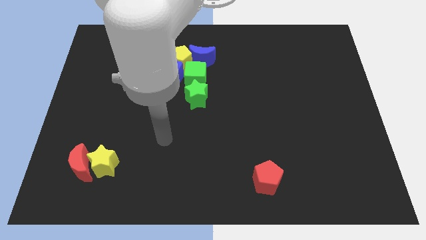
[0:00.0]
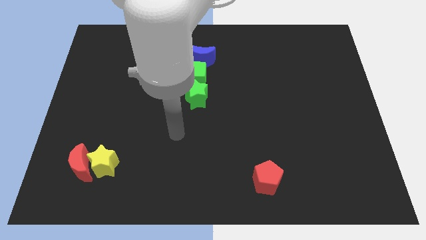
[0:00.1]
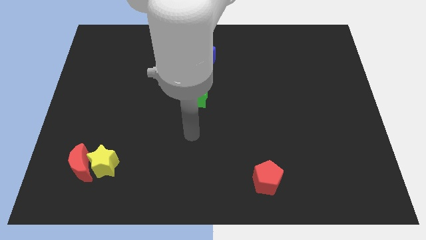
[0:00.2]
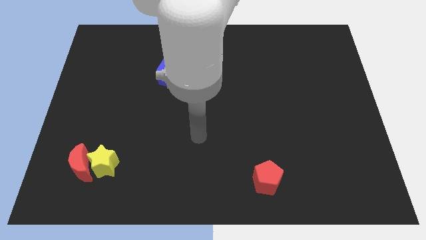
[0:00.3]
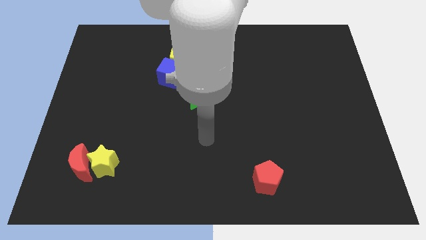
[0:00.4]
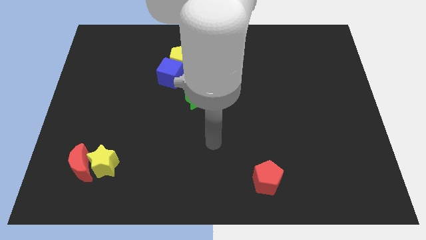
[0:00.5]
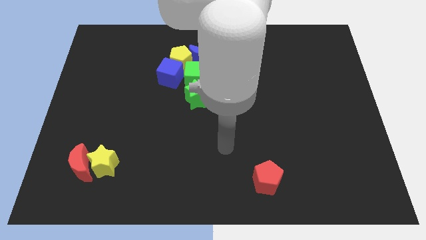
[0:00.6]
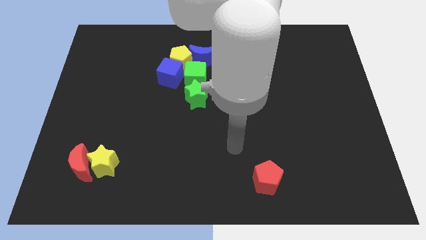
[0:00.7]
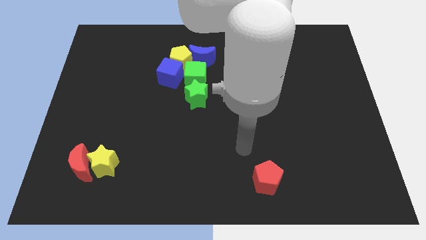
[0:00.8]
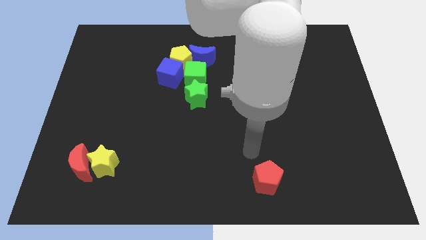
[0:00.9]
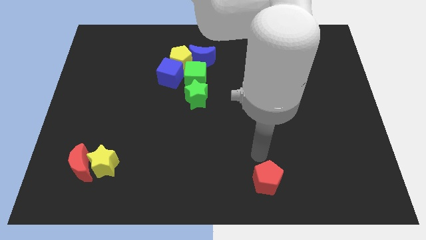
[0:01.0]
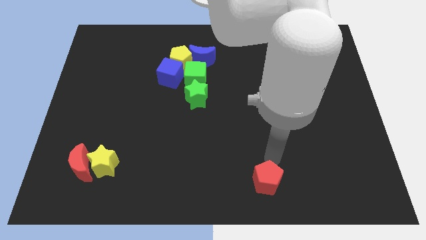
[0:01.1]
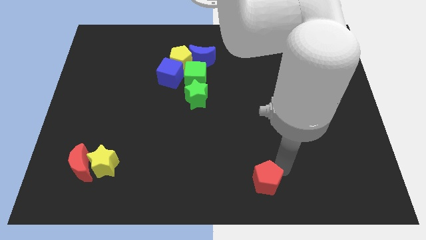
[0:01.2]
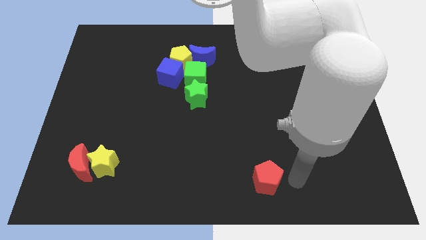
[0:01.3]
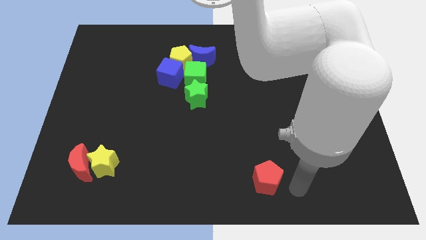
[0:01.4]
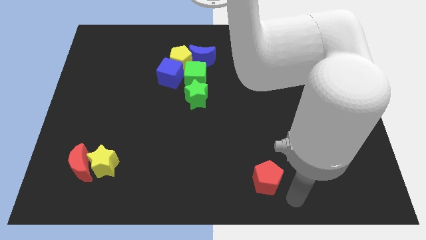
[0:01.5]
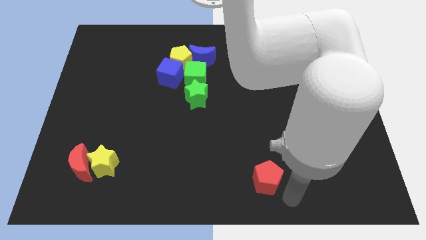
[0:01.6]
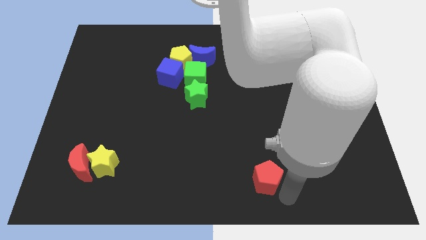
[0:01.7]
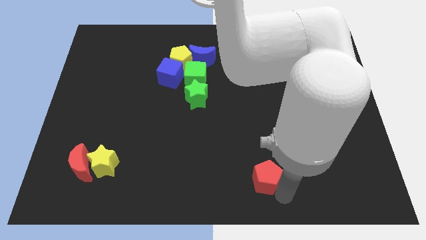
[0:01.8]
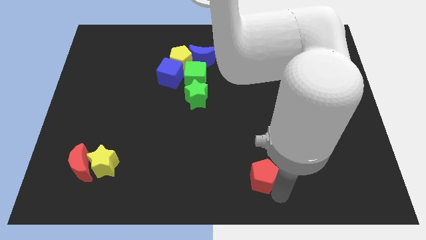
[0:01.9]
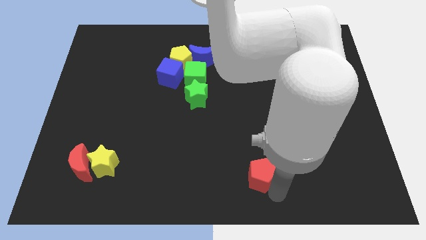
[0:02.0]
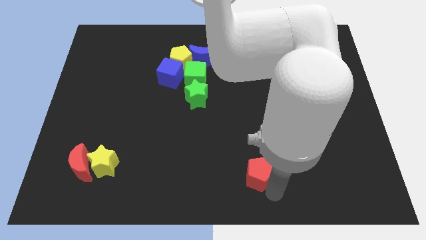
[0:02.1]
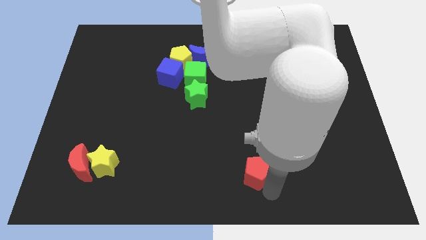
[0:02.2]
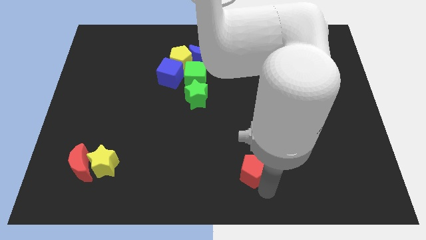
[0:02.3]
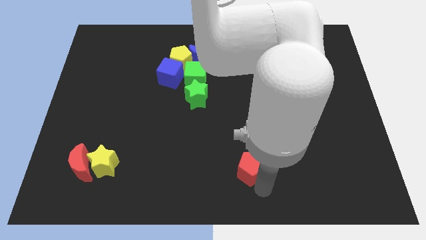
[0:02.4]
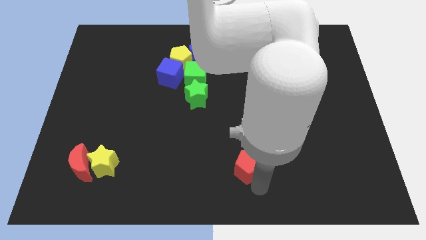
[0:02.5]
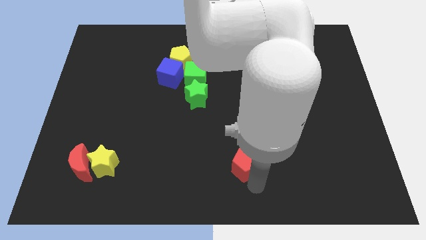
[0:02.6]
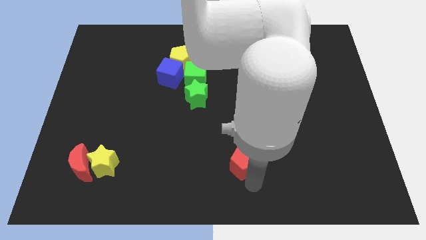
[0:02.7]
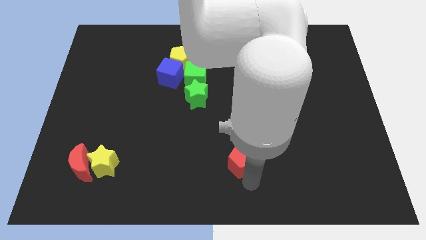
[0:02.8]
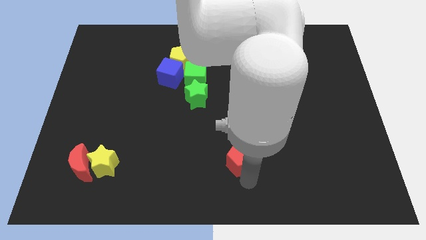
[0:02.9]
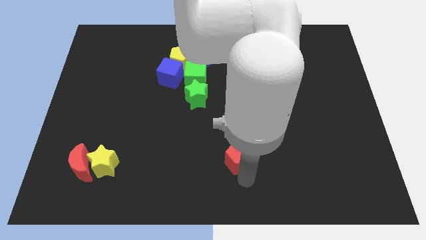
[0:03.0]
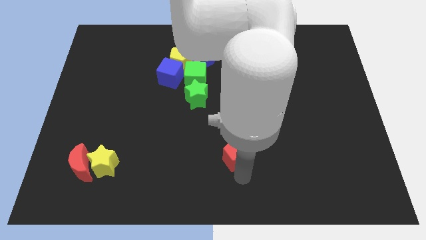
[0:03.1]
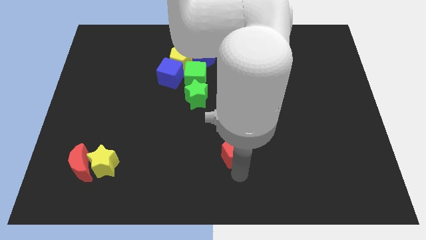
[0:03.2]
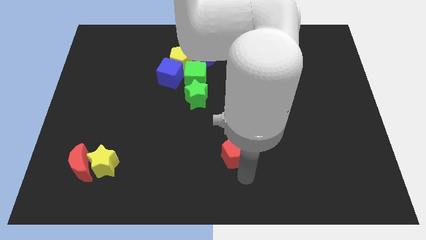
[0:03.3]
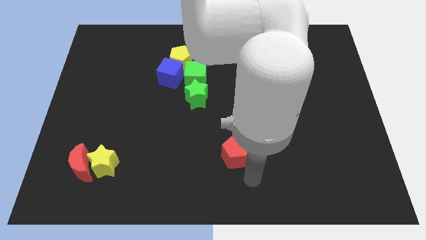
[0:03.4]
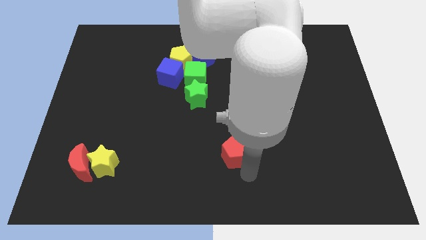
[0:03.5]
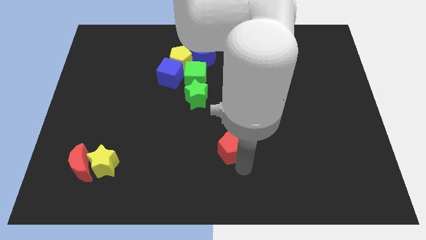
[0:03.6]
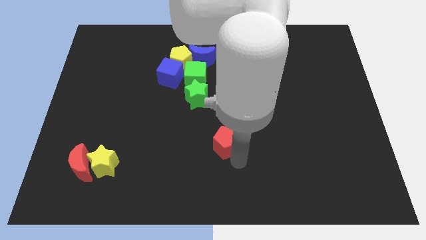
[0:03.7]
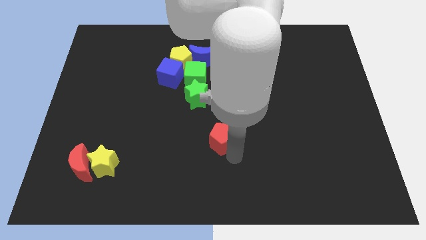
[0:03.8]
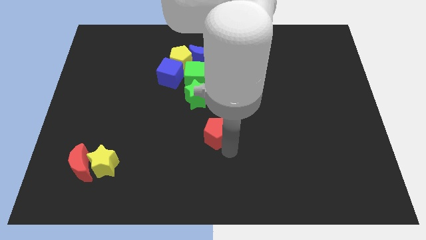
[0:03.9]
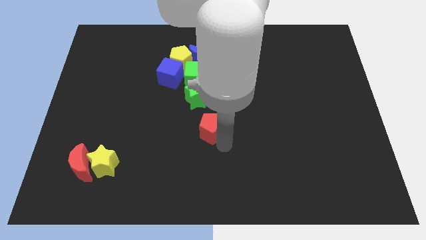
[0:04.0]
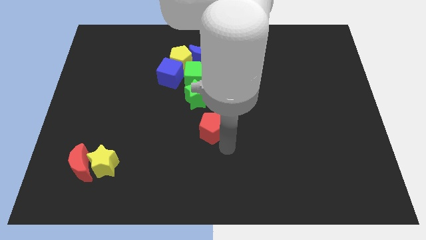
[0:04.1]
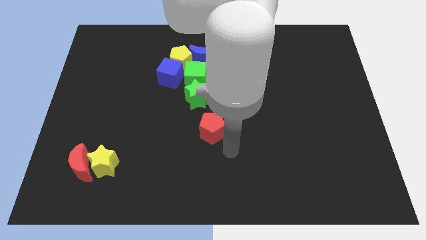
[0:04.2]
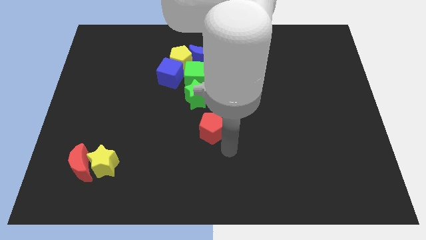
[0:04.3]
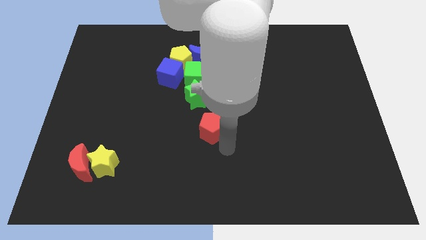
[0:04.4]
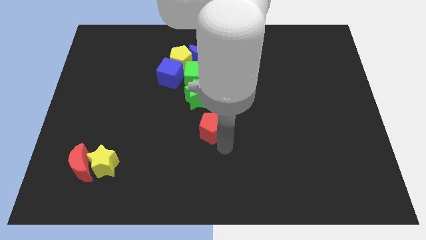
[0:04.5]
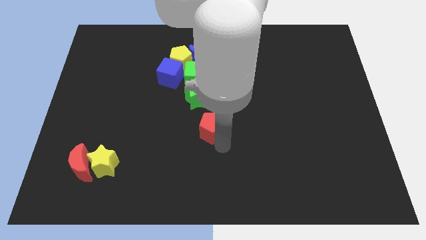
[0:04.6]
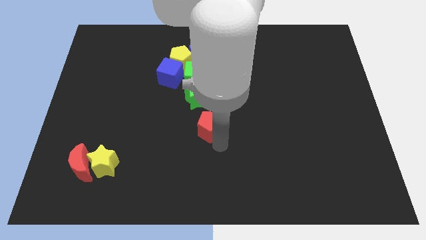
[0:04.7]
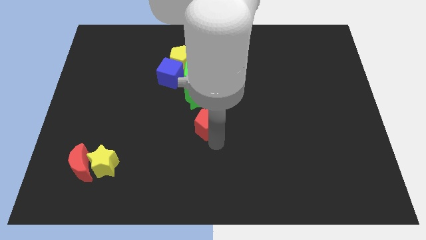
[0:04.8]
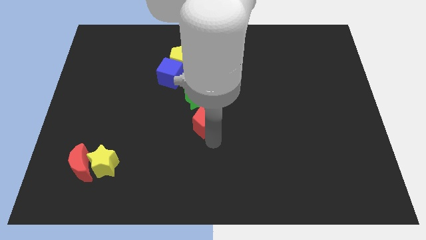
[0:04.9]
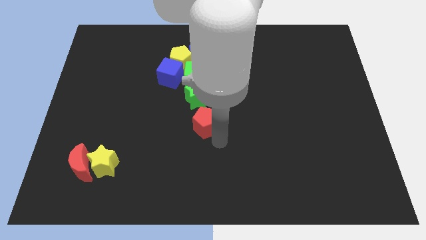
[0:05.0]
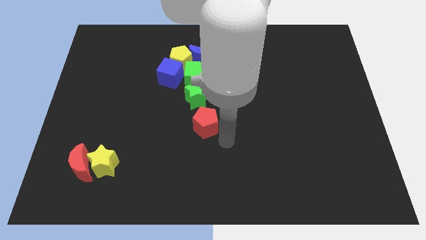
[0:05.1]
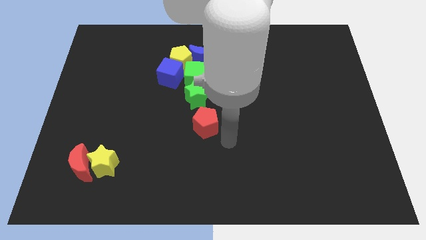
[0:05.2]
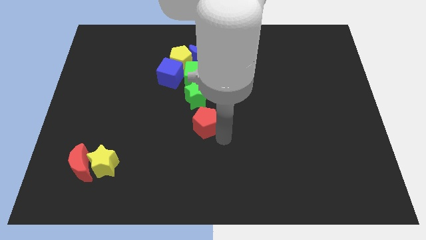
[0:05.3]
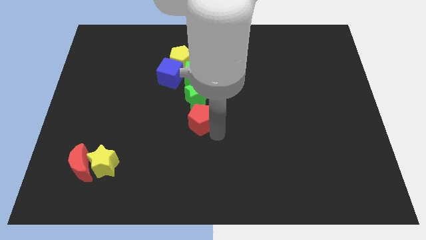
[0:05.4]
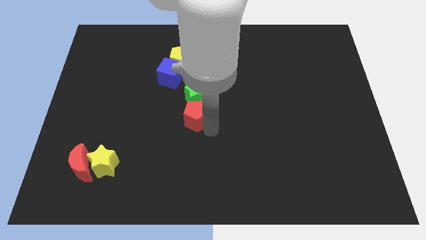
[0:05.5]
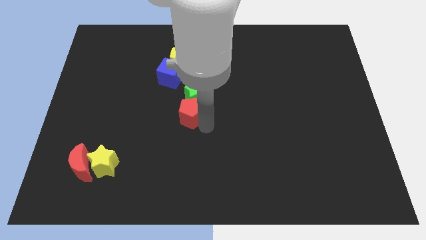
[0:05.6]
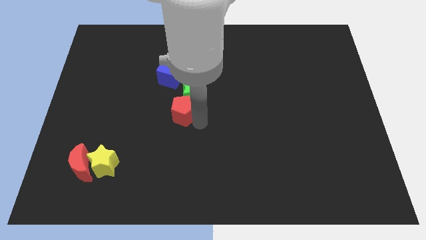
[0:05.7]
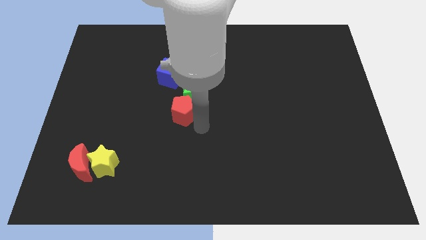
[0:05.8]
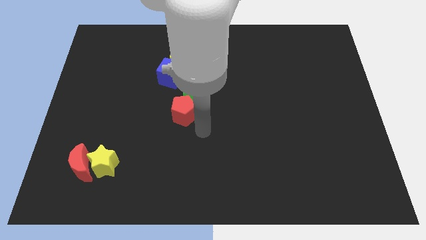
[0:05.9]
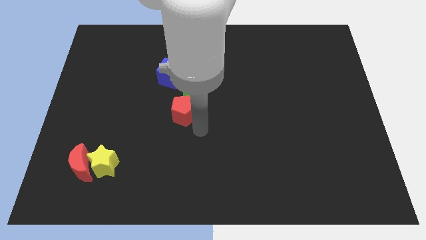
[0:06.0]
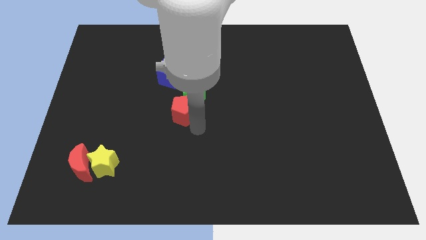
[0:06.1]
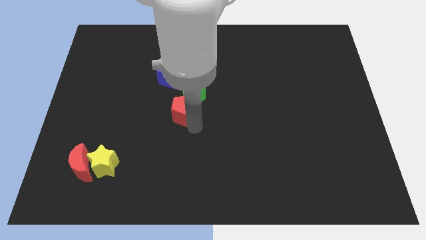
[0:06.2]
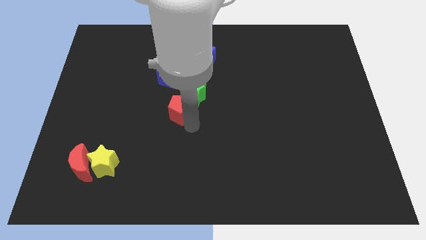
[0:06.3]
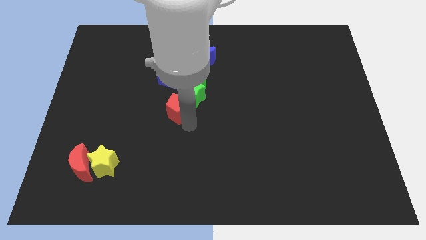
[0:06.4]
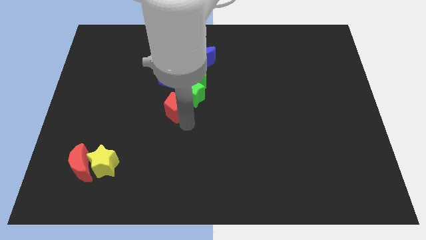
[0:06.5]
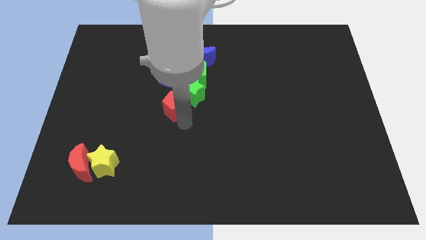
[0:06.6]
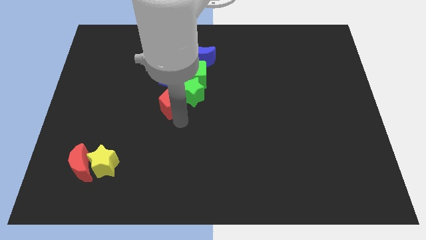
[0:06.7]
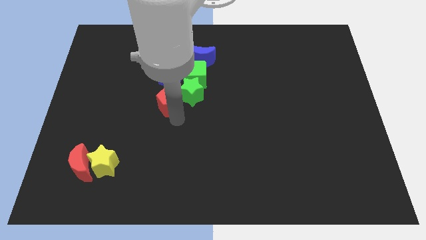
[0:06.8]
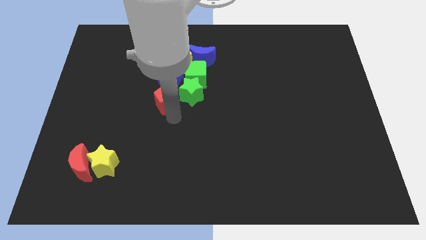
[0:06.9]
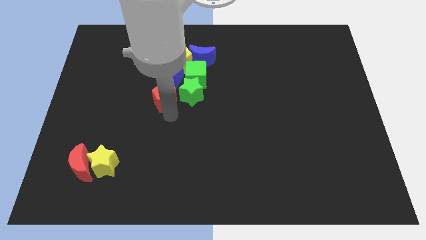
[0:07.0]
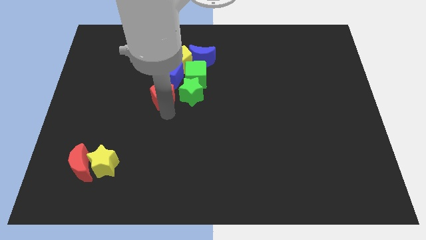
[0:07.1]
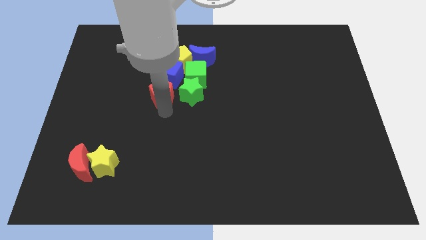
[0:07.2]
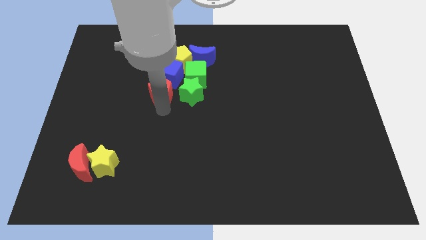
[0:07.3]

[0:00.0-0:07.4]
push the red pentagon to the blue cube
